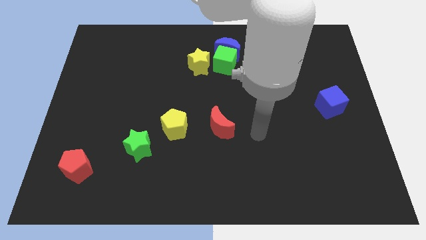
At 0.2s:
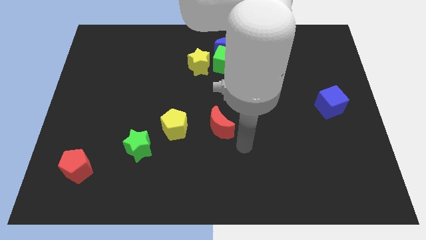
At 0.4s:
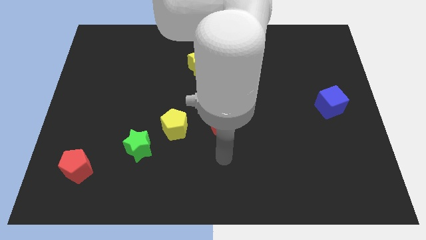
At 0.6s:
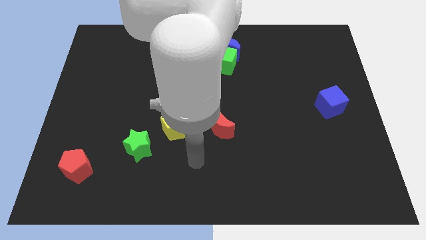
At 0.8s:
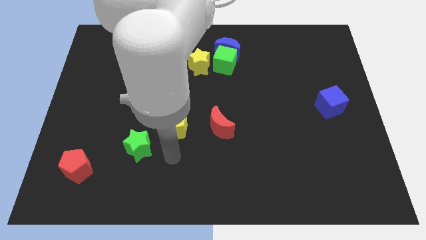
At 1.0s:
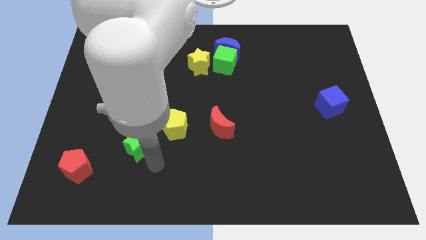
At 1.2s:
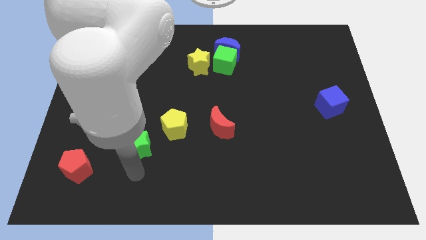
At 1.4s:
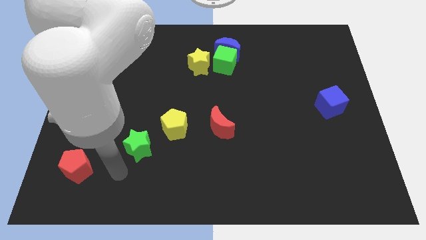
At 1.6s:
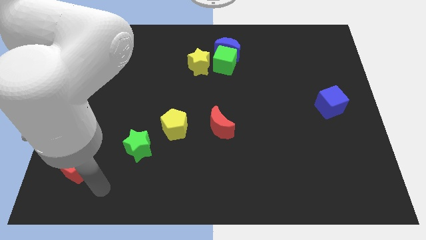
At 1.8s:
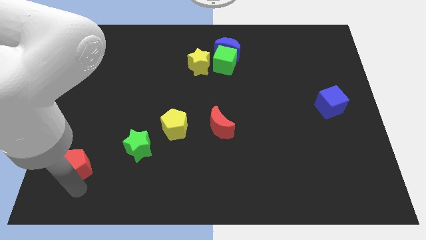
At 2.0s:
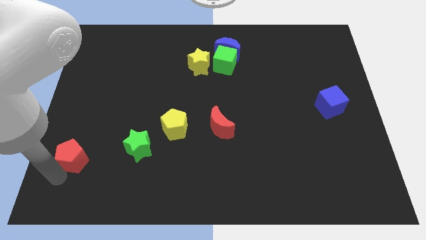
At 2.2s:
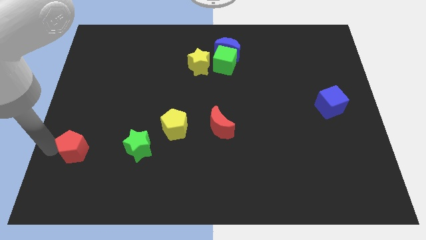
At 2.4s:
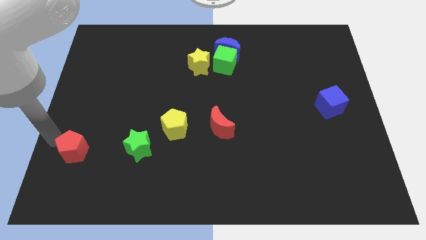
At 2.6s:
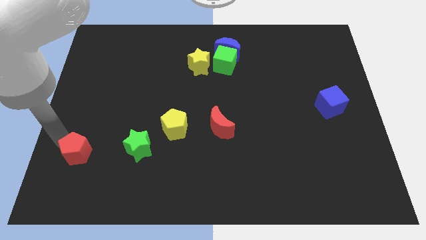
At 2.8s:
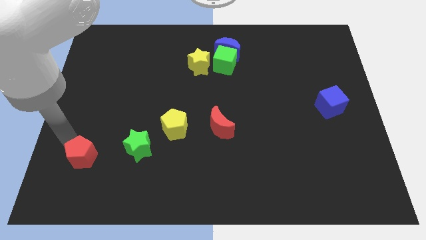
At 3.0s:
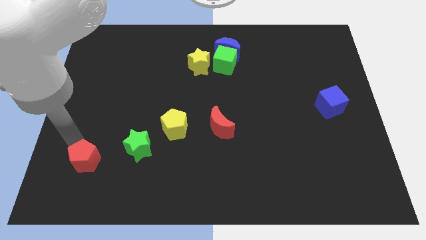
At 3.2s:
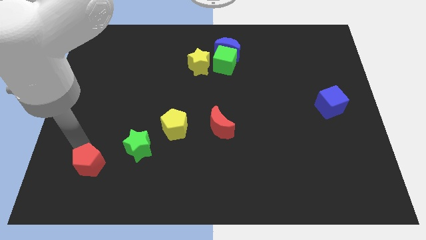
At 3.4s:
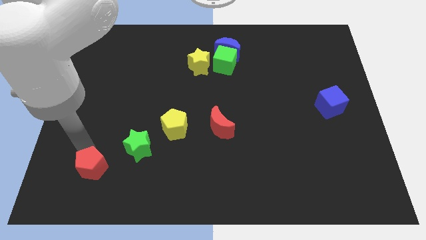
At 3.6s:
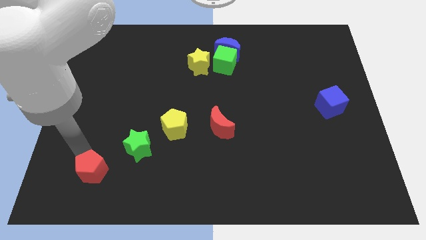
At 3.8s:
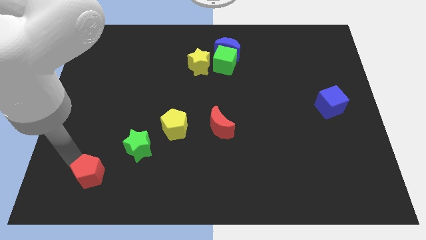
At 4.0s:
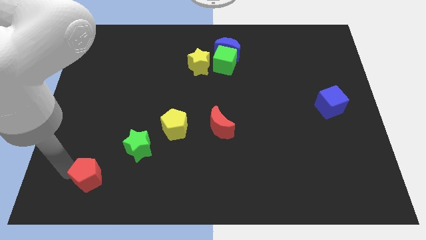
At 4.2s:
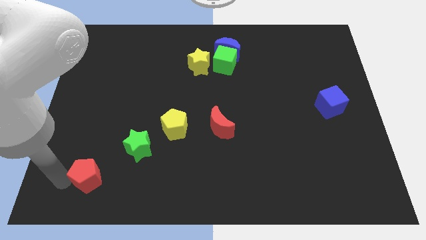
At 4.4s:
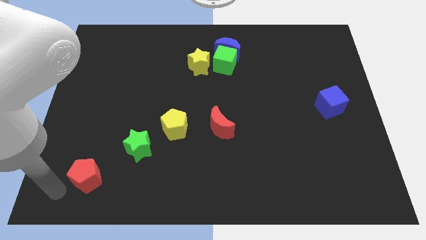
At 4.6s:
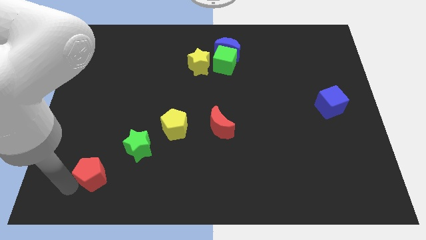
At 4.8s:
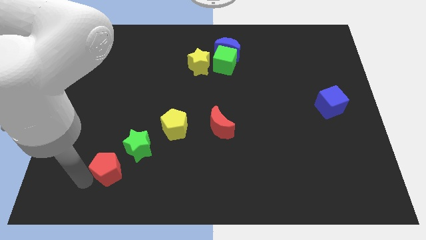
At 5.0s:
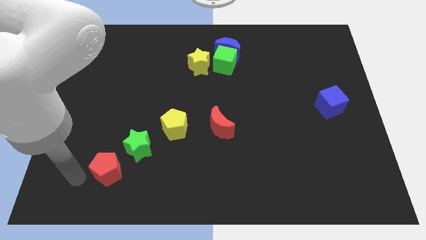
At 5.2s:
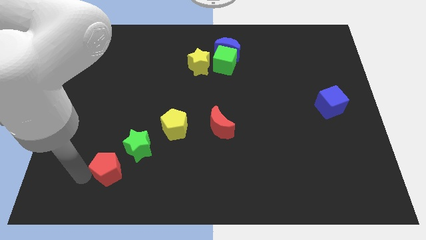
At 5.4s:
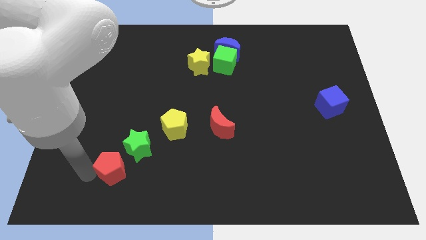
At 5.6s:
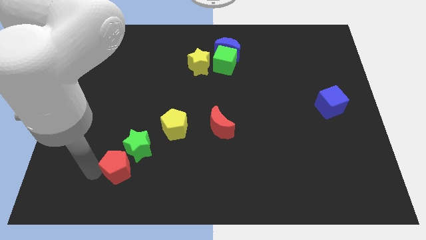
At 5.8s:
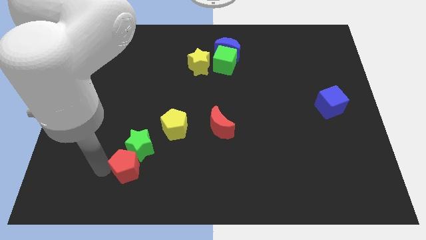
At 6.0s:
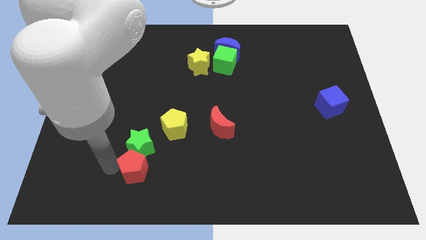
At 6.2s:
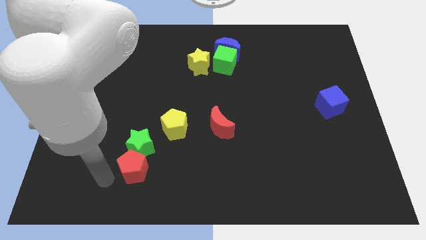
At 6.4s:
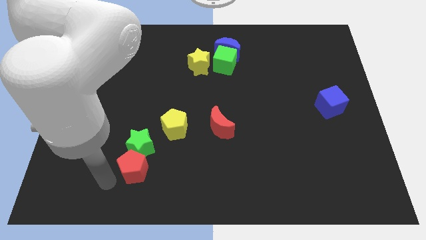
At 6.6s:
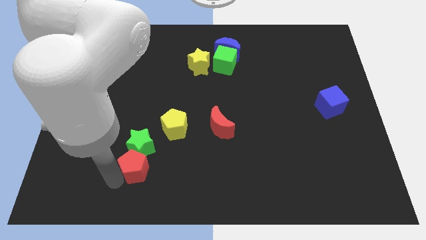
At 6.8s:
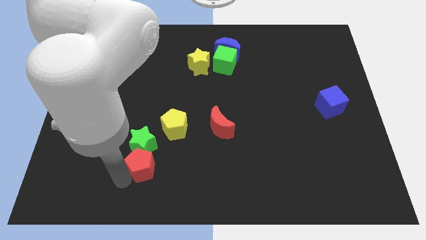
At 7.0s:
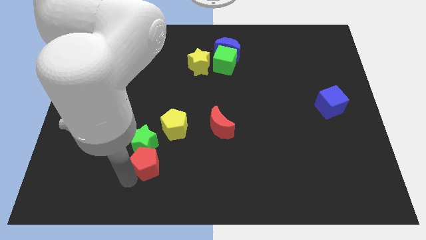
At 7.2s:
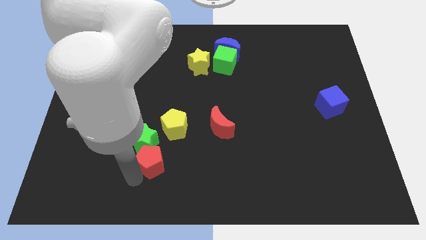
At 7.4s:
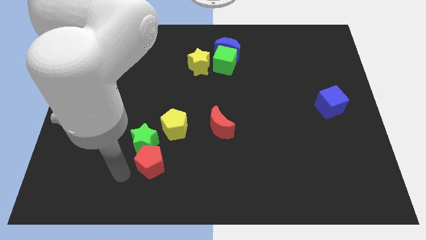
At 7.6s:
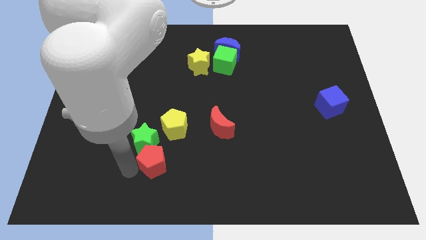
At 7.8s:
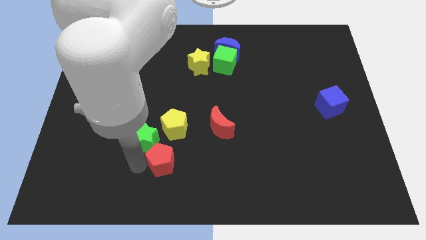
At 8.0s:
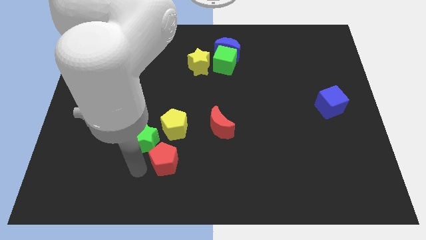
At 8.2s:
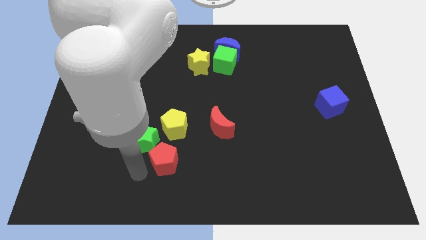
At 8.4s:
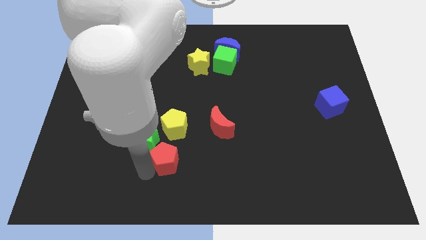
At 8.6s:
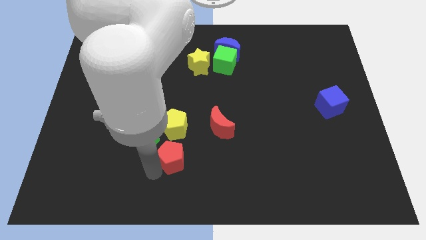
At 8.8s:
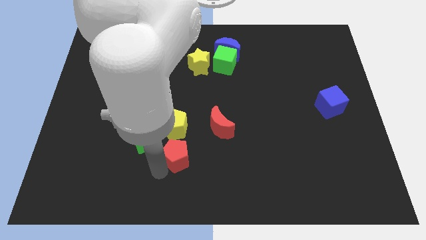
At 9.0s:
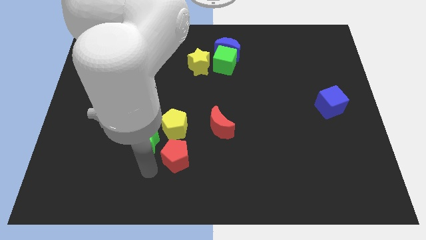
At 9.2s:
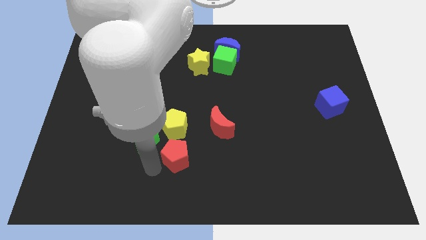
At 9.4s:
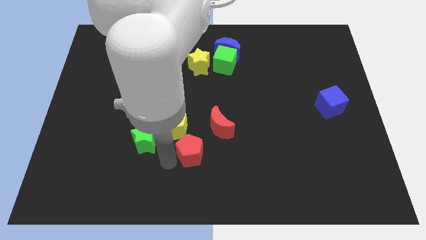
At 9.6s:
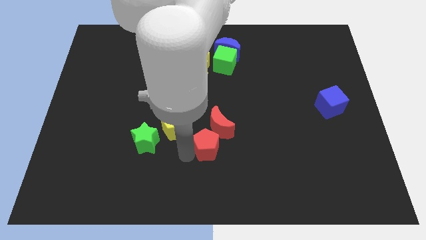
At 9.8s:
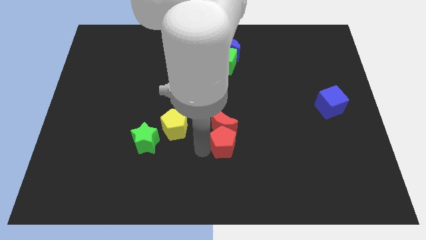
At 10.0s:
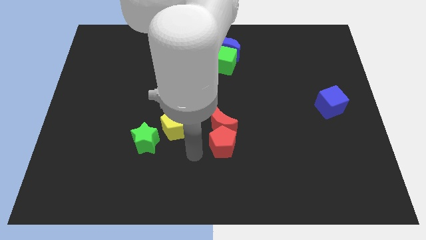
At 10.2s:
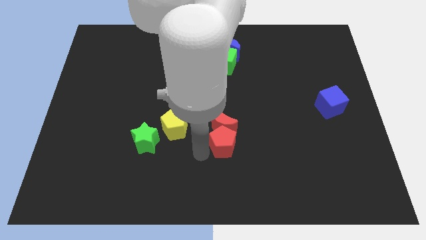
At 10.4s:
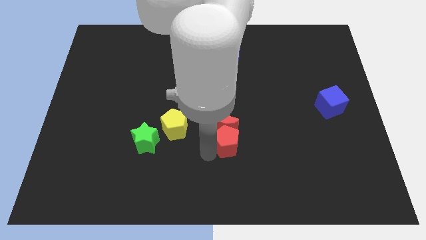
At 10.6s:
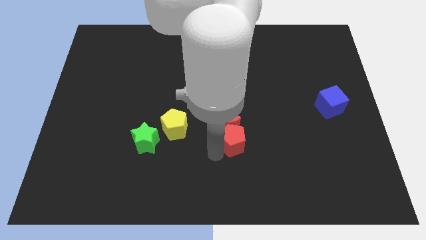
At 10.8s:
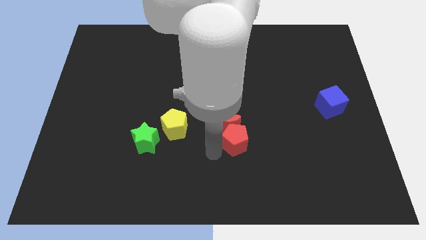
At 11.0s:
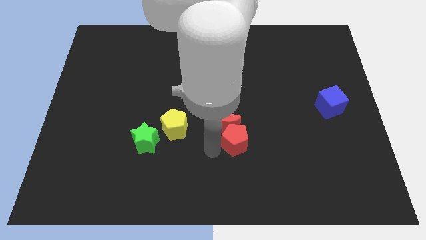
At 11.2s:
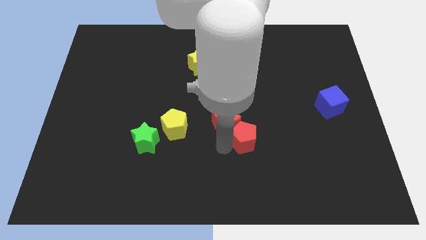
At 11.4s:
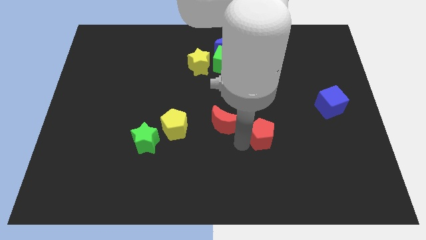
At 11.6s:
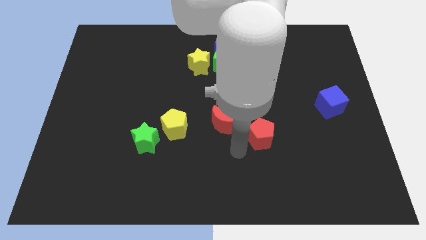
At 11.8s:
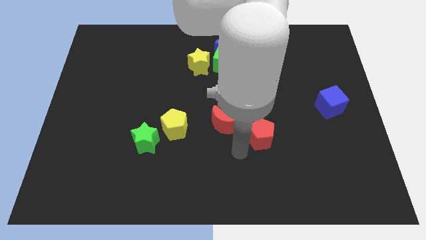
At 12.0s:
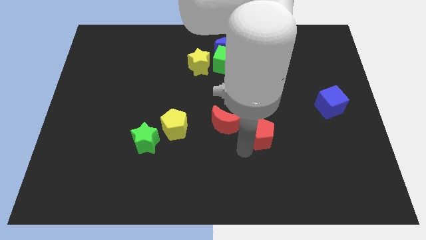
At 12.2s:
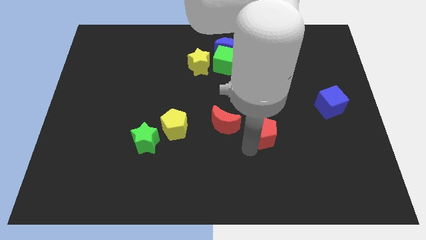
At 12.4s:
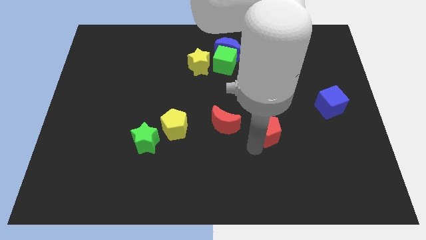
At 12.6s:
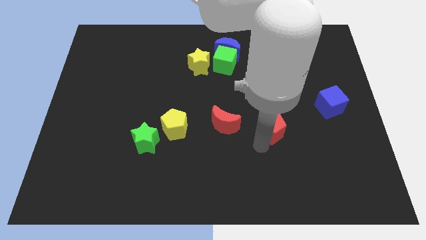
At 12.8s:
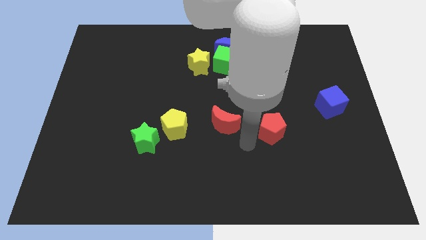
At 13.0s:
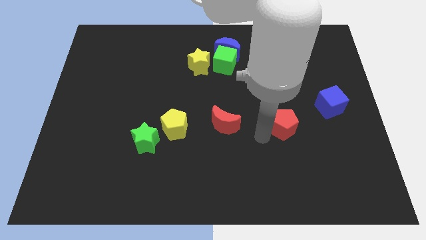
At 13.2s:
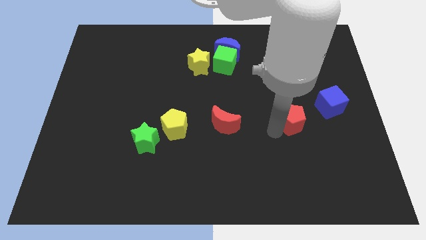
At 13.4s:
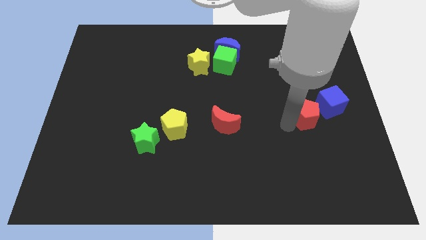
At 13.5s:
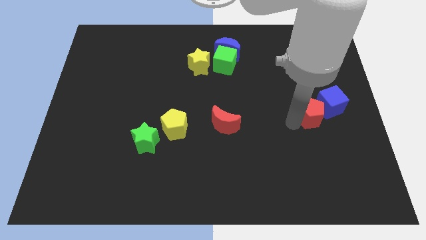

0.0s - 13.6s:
put the red pentagon close to the blue cube

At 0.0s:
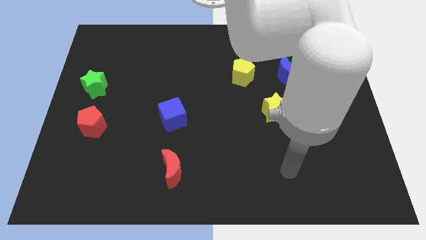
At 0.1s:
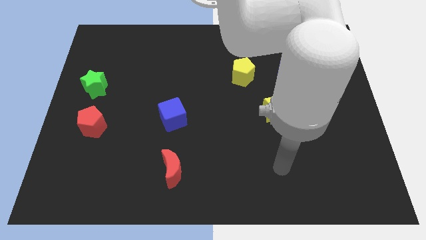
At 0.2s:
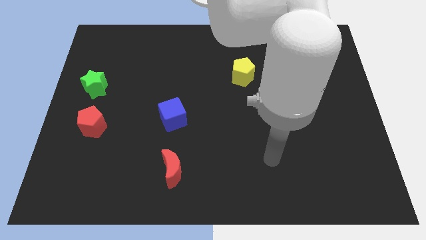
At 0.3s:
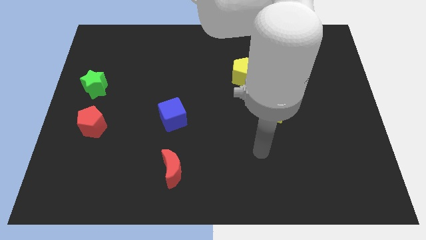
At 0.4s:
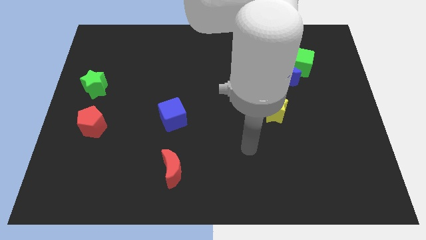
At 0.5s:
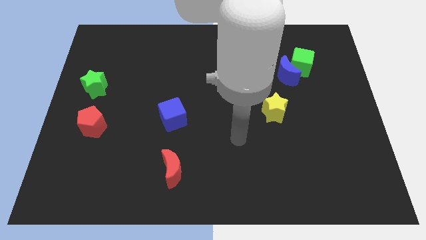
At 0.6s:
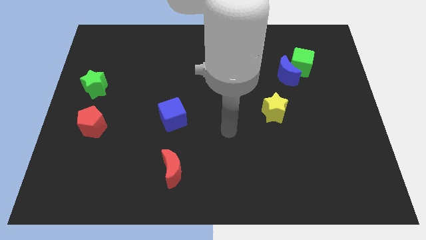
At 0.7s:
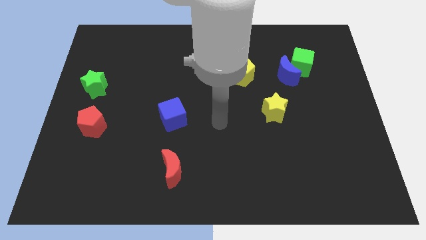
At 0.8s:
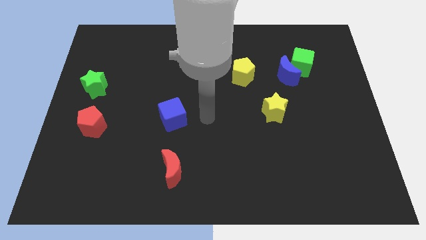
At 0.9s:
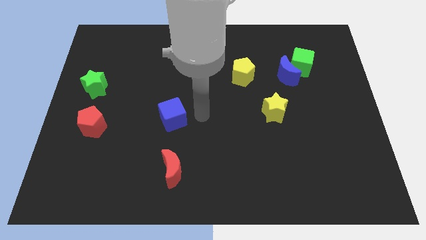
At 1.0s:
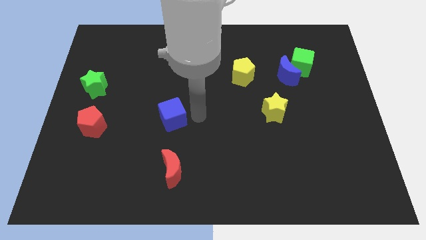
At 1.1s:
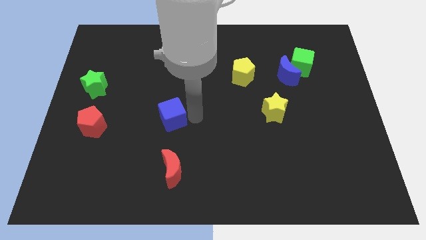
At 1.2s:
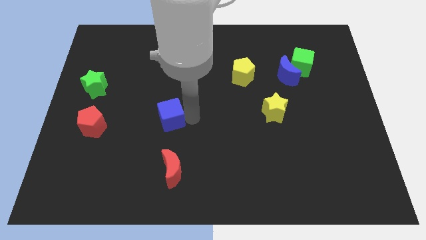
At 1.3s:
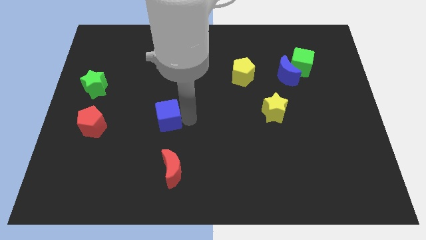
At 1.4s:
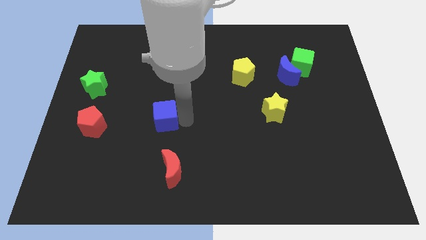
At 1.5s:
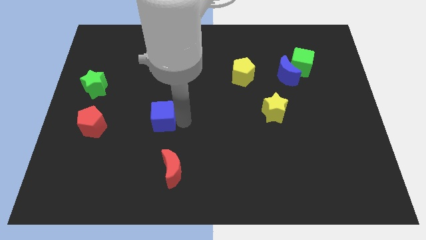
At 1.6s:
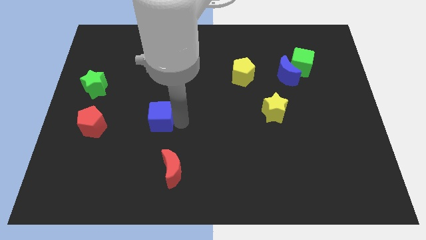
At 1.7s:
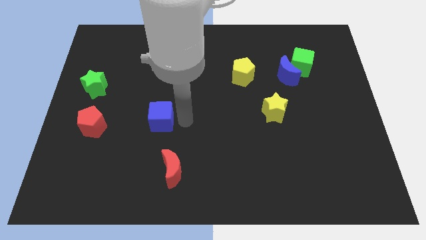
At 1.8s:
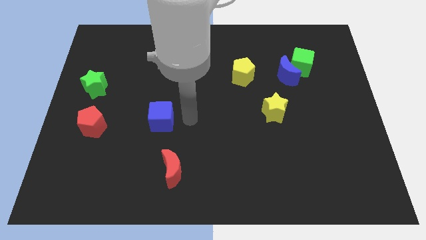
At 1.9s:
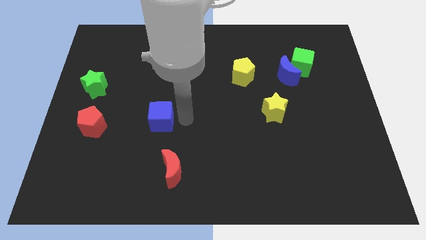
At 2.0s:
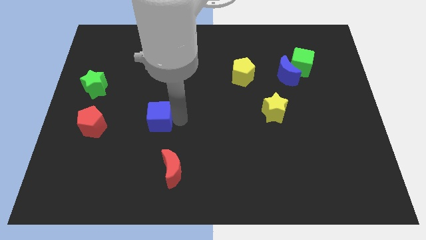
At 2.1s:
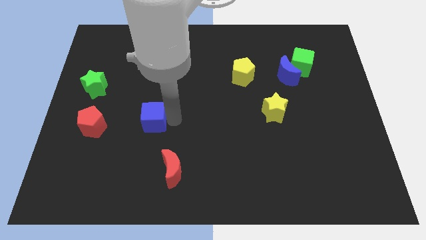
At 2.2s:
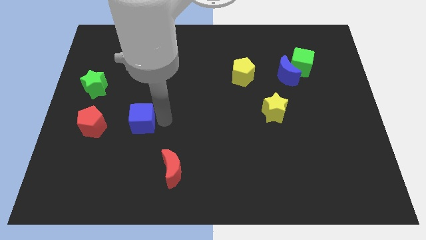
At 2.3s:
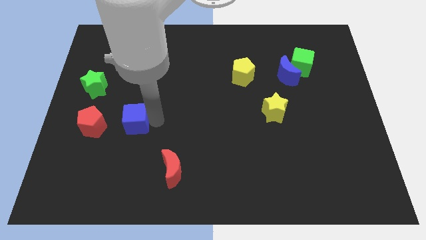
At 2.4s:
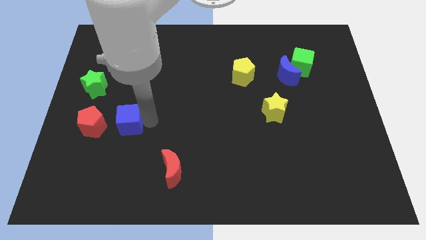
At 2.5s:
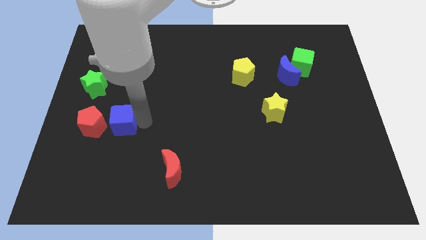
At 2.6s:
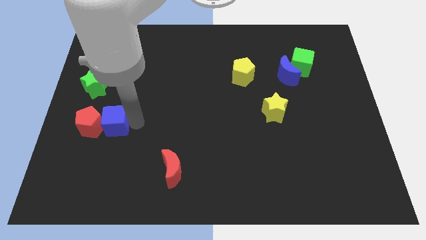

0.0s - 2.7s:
slide the blue cube close to the red pentagon
